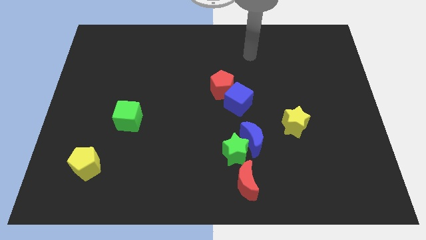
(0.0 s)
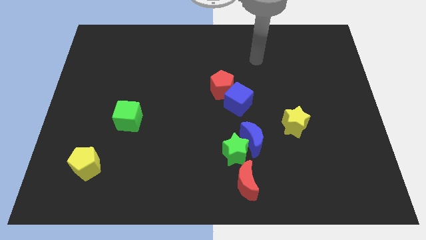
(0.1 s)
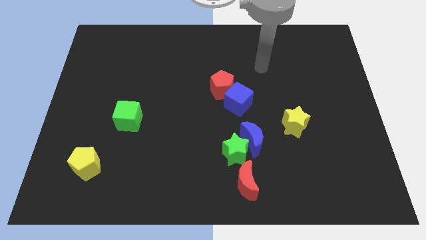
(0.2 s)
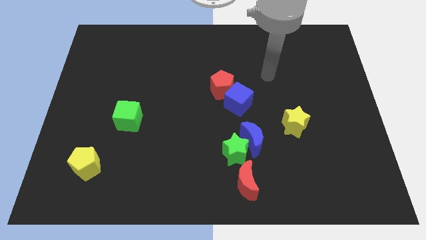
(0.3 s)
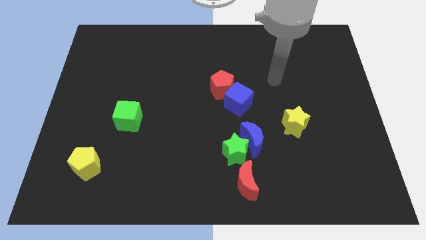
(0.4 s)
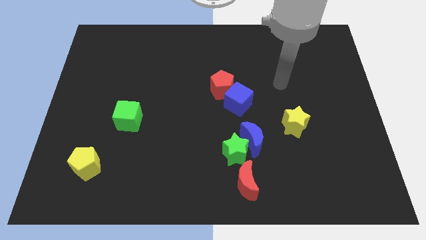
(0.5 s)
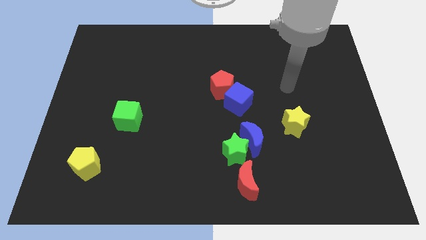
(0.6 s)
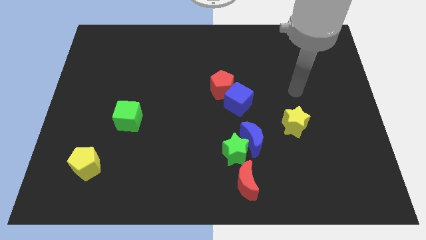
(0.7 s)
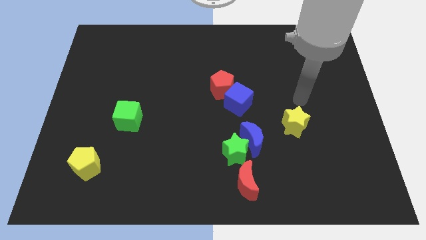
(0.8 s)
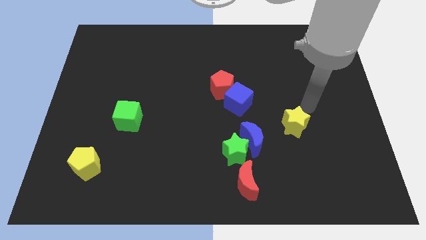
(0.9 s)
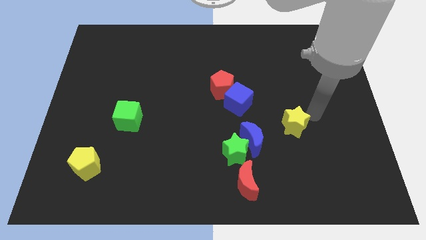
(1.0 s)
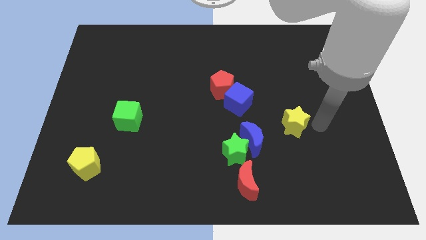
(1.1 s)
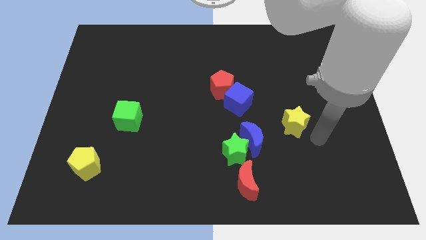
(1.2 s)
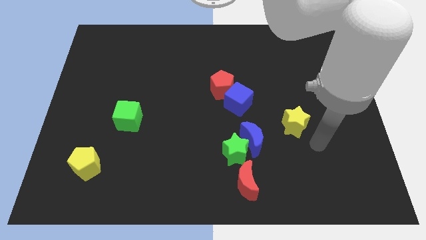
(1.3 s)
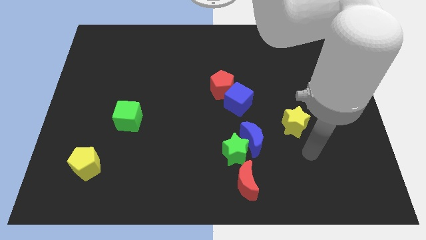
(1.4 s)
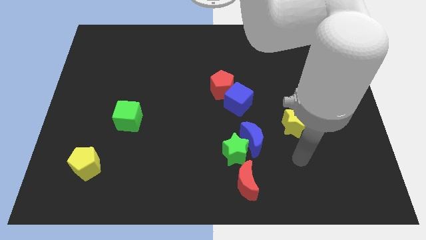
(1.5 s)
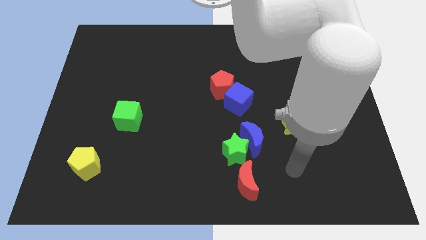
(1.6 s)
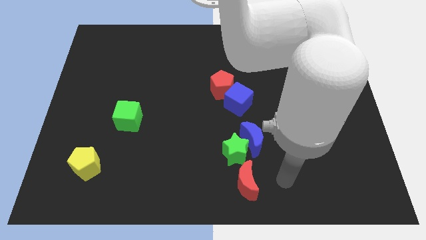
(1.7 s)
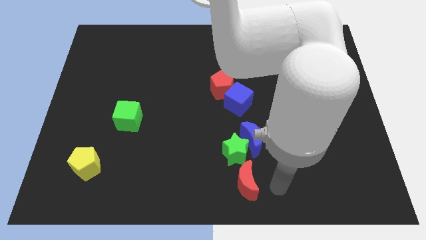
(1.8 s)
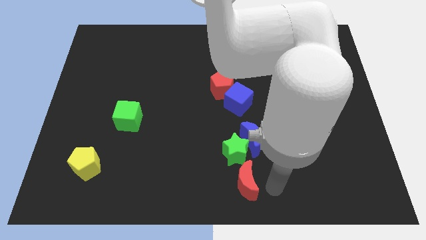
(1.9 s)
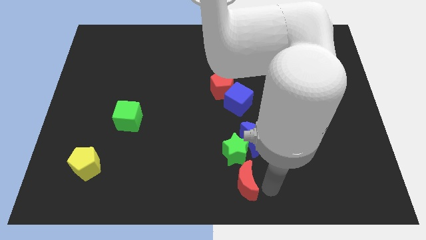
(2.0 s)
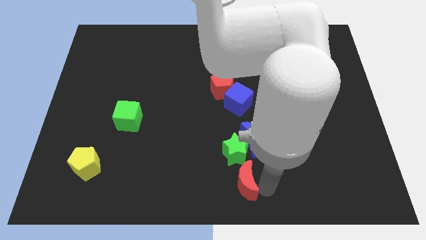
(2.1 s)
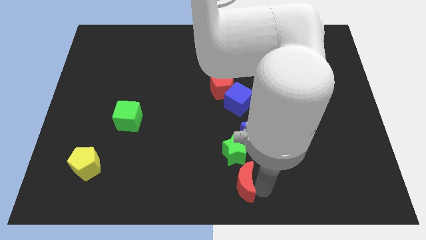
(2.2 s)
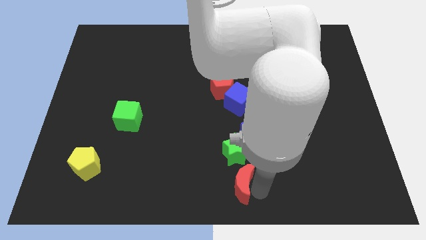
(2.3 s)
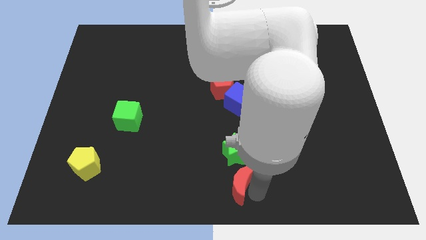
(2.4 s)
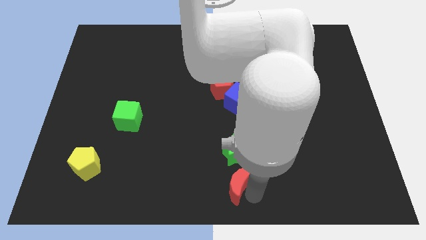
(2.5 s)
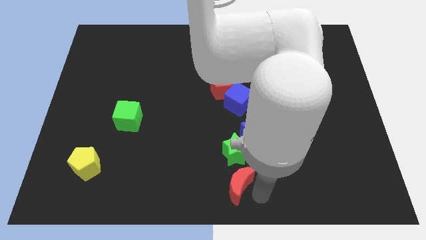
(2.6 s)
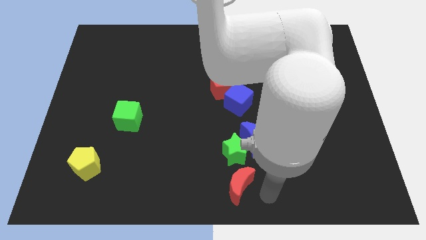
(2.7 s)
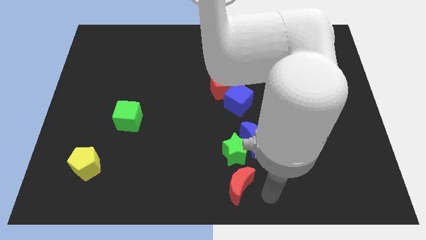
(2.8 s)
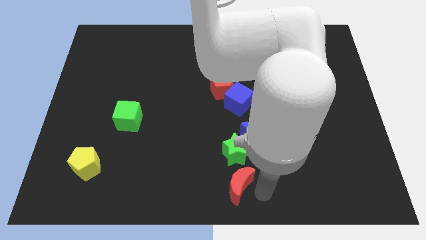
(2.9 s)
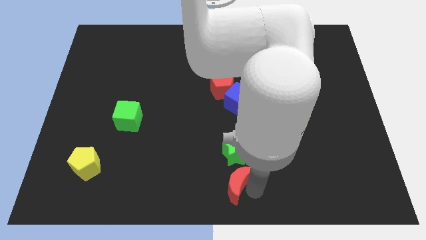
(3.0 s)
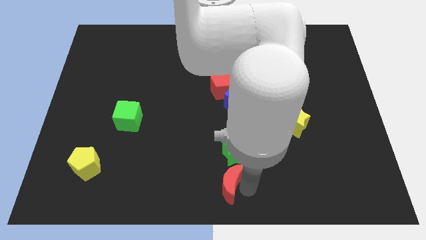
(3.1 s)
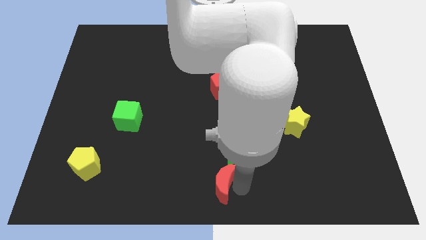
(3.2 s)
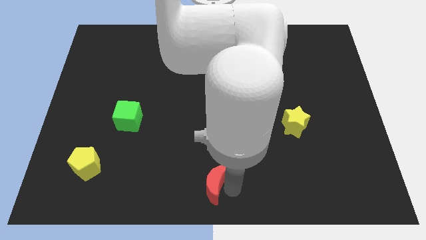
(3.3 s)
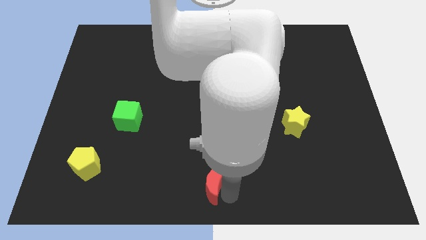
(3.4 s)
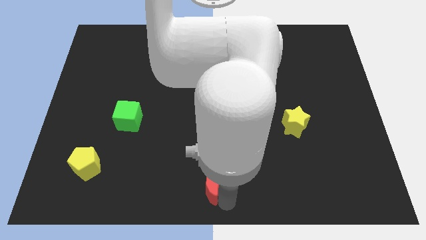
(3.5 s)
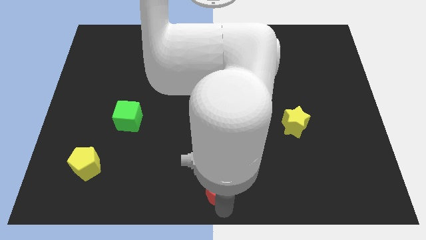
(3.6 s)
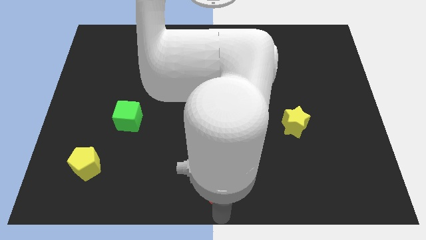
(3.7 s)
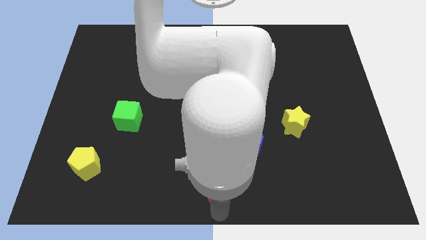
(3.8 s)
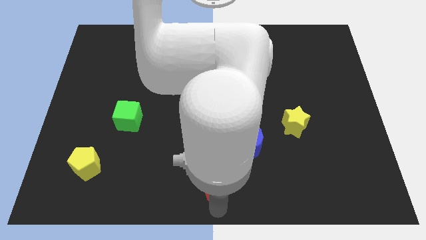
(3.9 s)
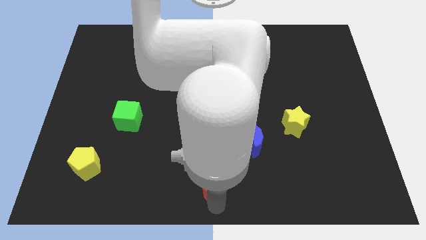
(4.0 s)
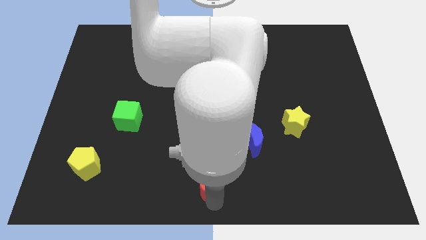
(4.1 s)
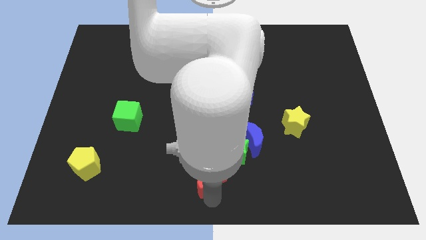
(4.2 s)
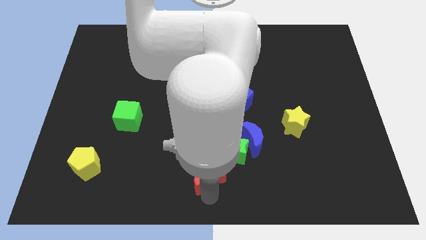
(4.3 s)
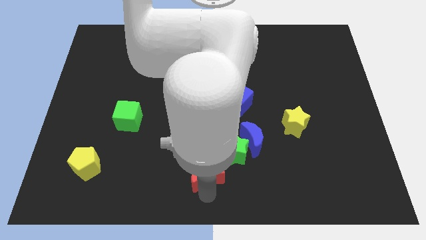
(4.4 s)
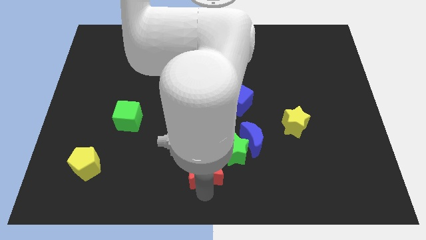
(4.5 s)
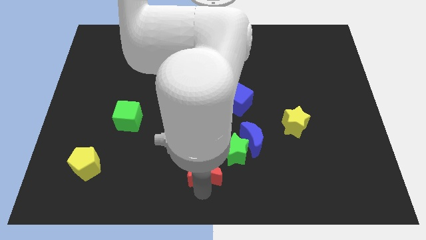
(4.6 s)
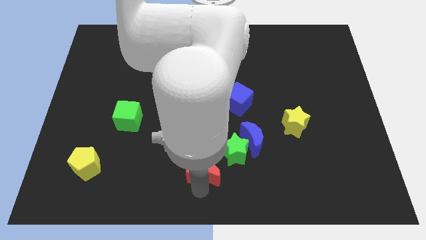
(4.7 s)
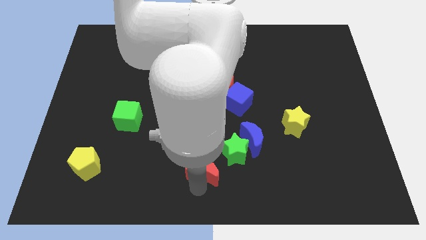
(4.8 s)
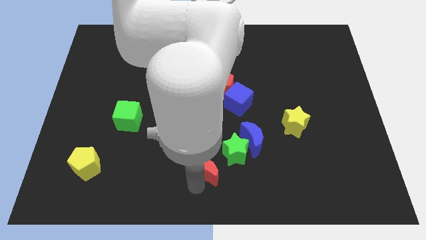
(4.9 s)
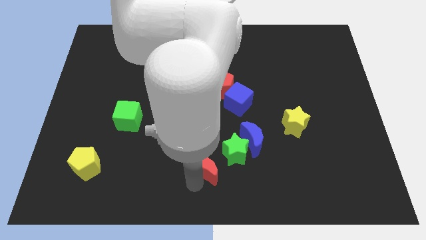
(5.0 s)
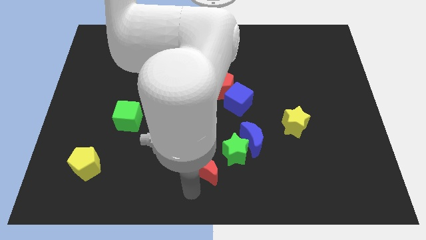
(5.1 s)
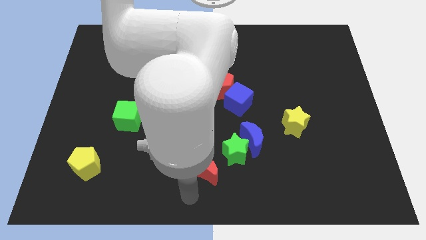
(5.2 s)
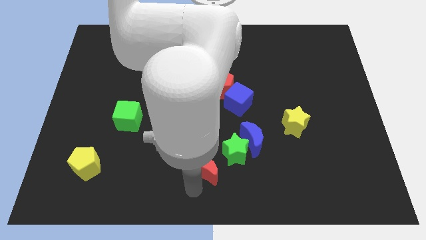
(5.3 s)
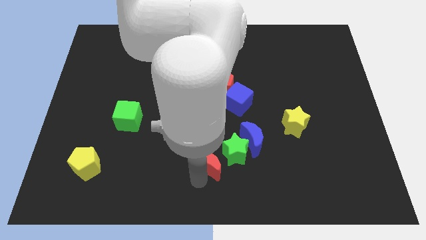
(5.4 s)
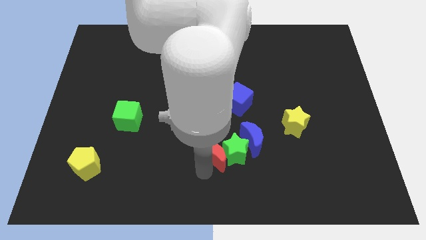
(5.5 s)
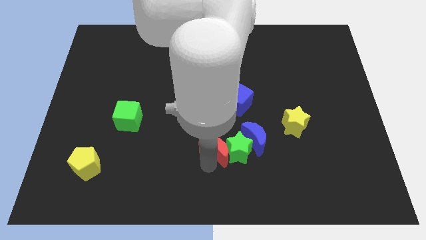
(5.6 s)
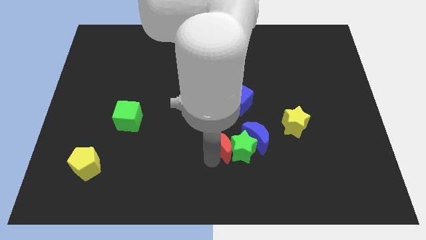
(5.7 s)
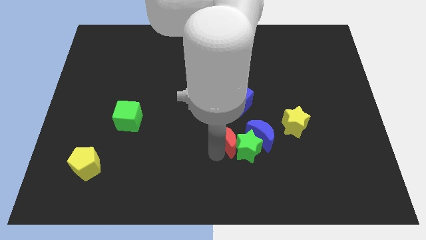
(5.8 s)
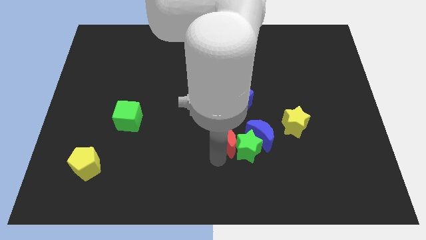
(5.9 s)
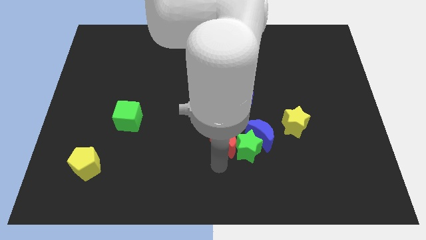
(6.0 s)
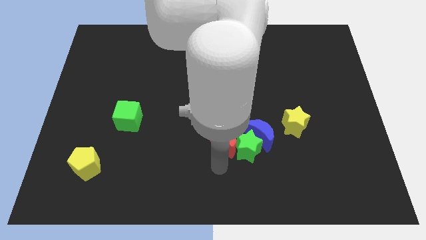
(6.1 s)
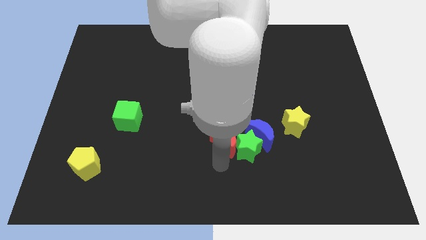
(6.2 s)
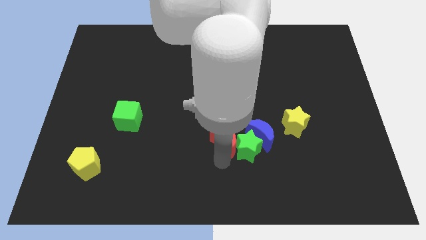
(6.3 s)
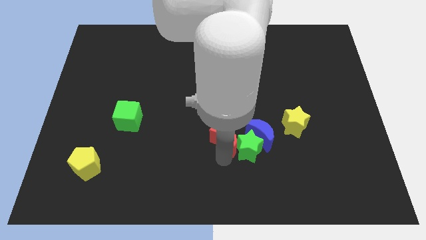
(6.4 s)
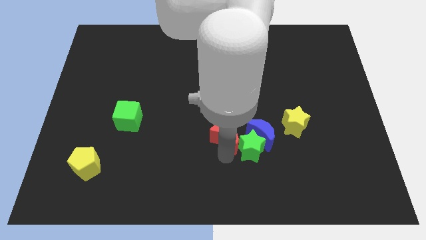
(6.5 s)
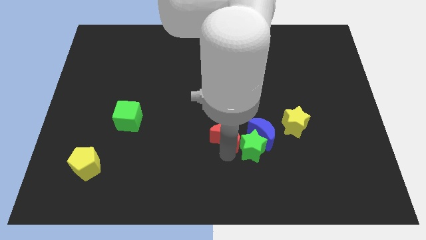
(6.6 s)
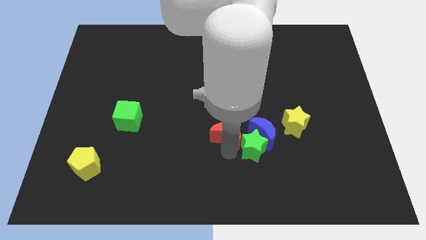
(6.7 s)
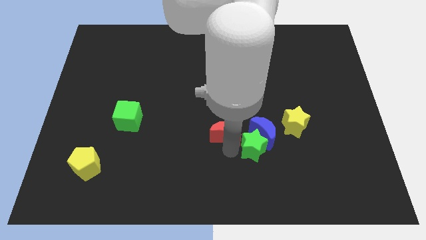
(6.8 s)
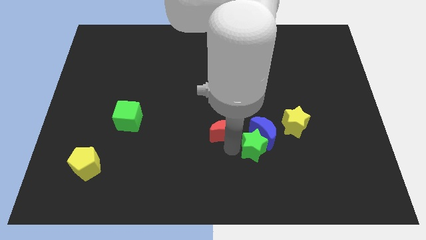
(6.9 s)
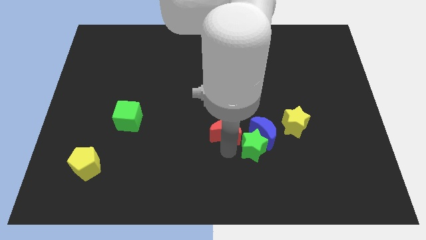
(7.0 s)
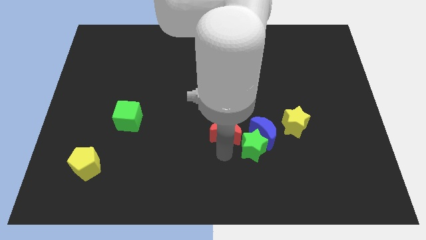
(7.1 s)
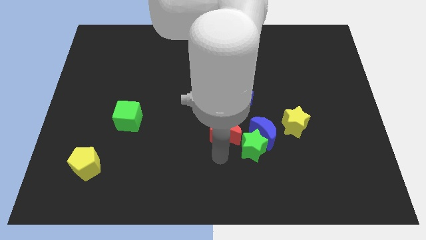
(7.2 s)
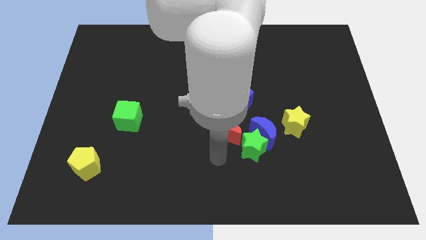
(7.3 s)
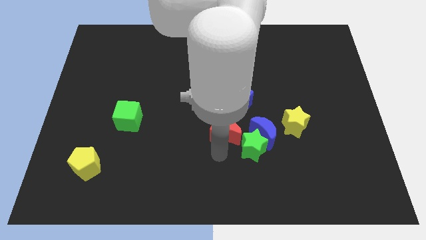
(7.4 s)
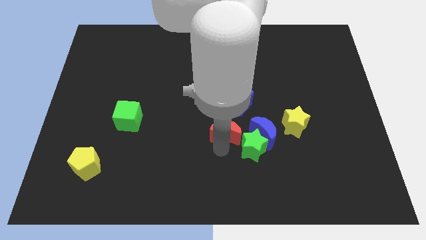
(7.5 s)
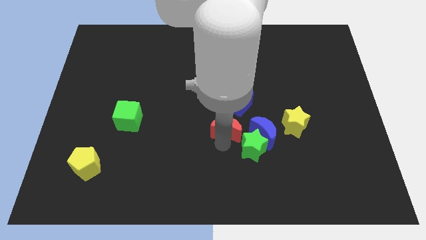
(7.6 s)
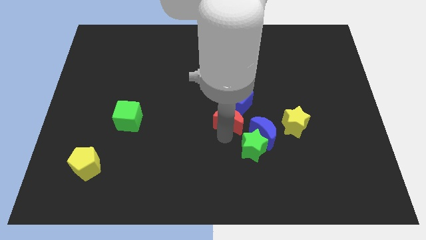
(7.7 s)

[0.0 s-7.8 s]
put the red moon close to the blue cube
